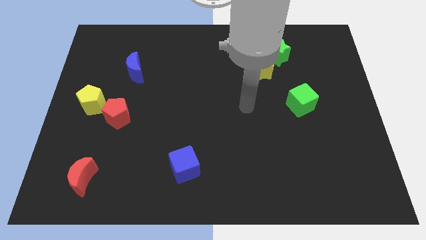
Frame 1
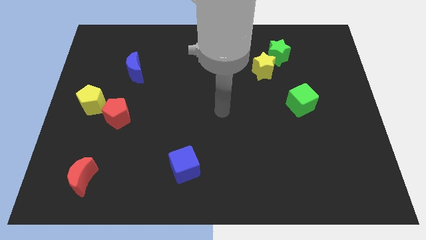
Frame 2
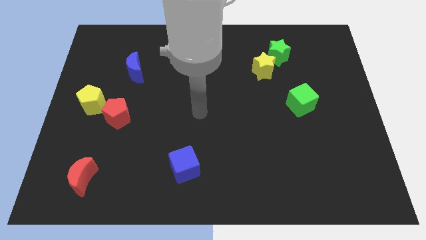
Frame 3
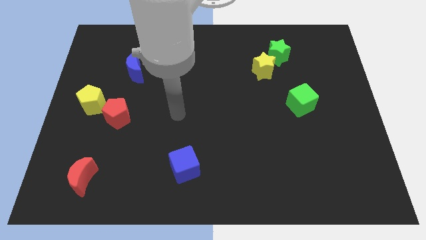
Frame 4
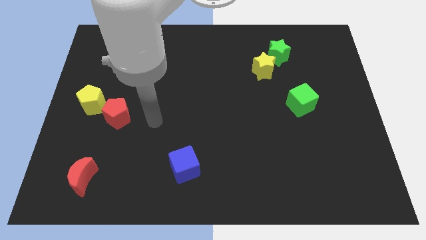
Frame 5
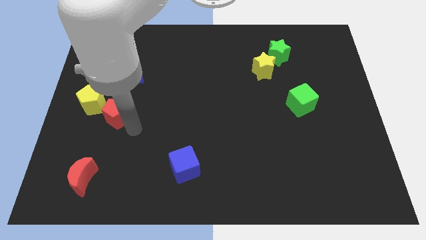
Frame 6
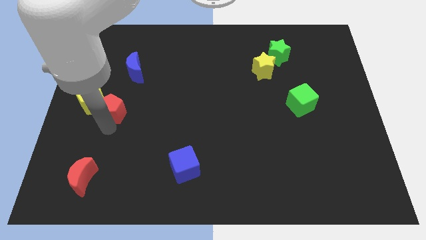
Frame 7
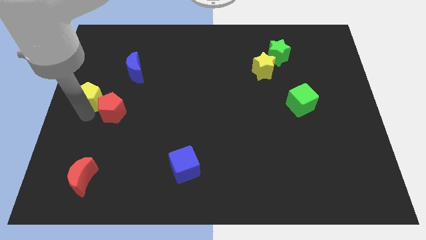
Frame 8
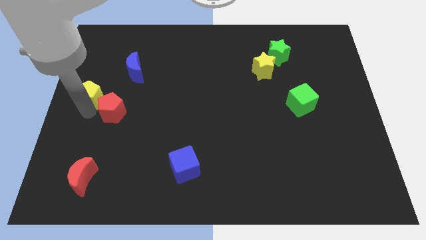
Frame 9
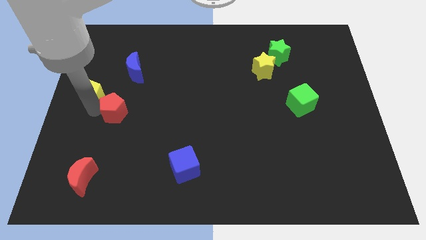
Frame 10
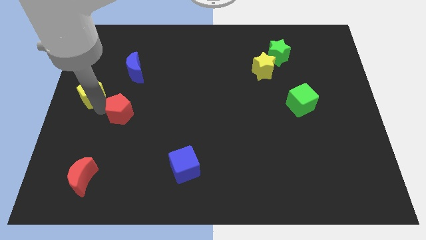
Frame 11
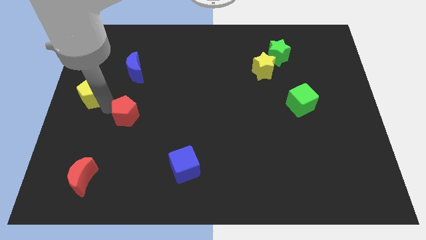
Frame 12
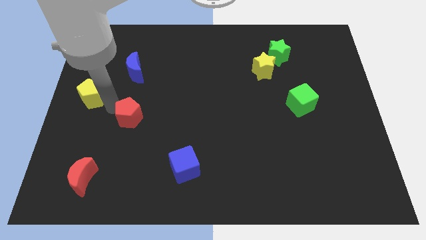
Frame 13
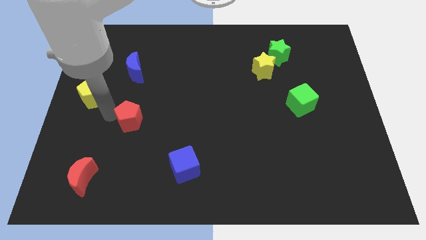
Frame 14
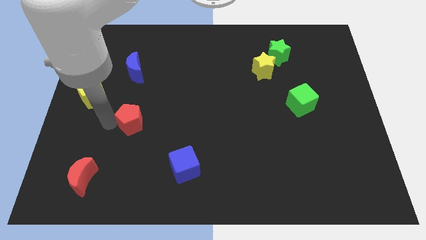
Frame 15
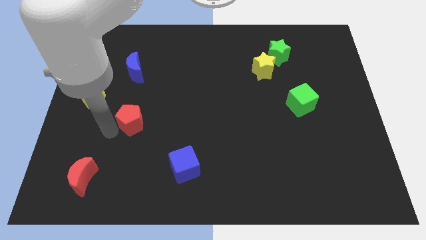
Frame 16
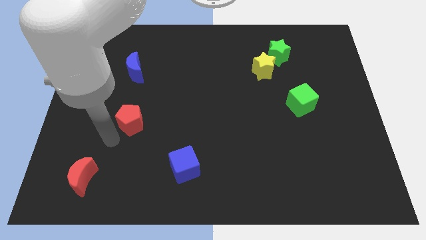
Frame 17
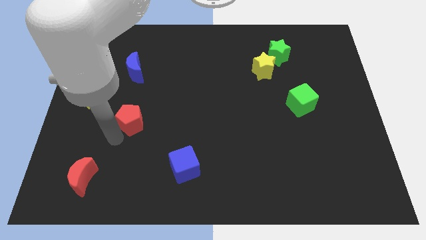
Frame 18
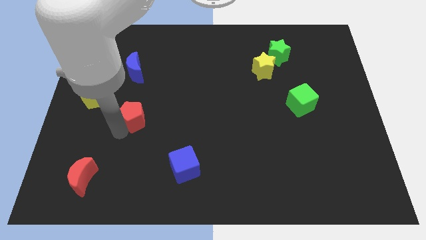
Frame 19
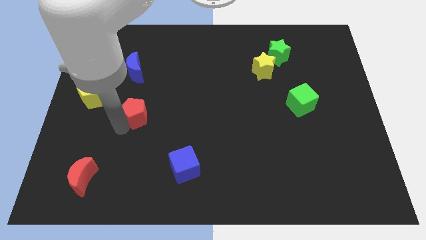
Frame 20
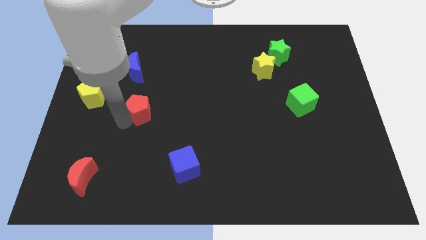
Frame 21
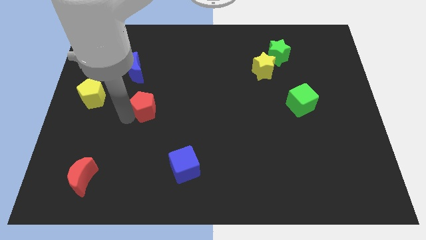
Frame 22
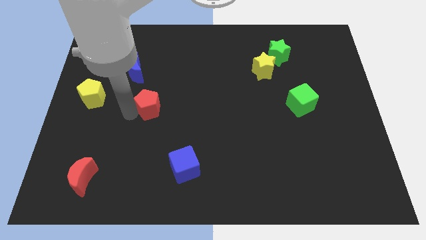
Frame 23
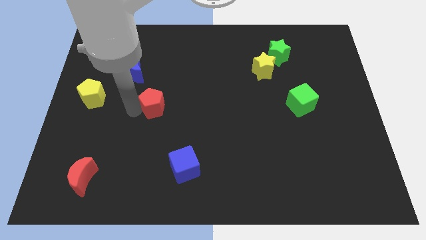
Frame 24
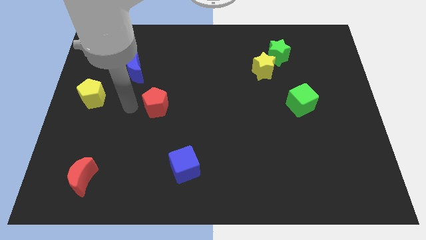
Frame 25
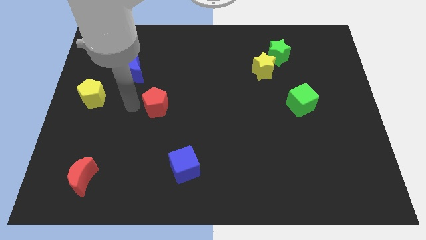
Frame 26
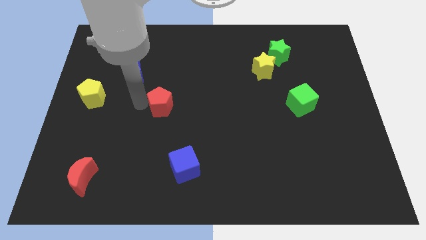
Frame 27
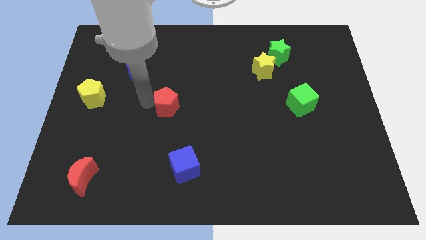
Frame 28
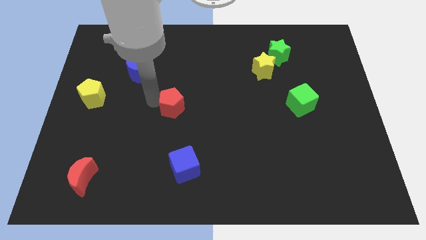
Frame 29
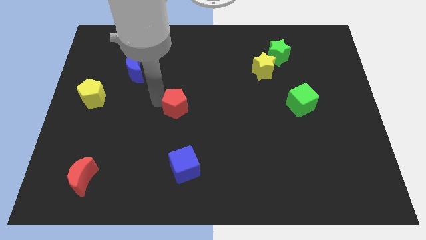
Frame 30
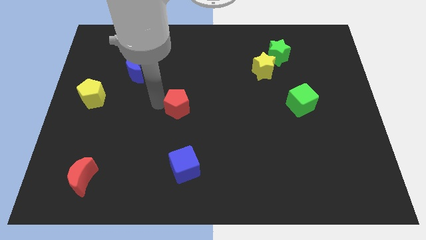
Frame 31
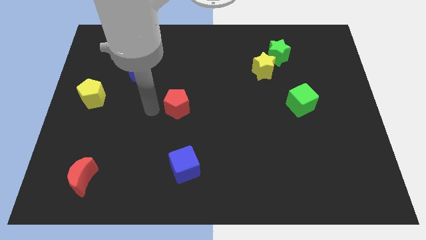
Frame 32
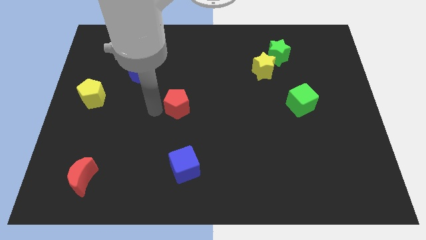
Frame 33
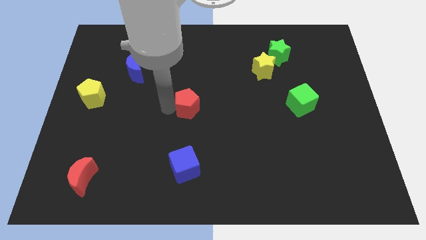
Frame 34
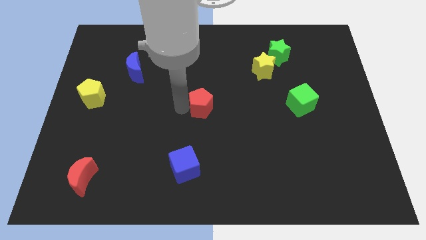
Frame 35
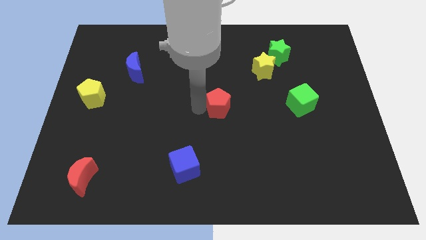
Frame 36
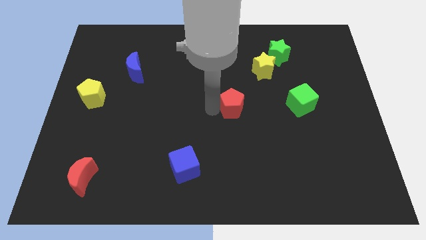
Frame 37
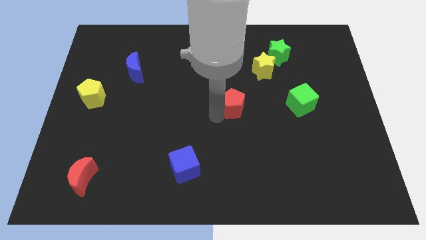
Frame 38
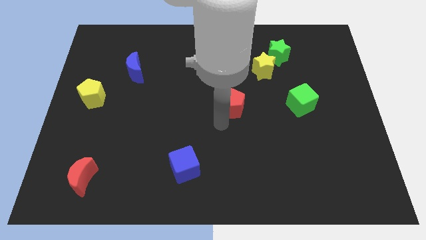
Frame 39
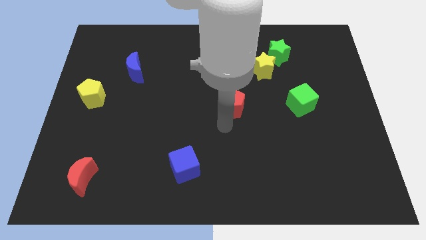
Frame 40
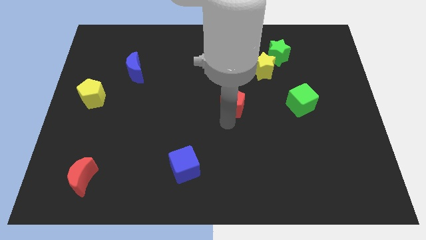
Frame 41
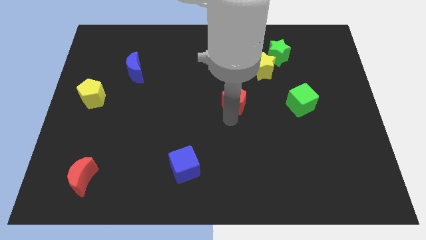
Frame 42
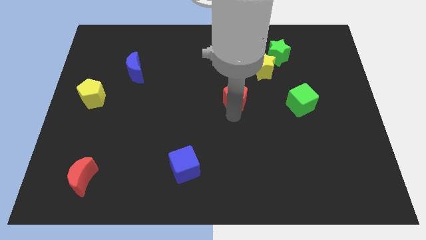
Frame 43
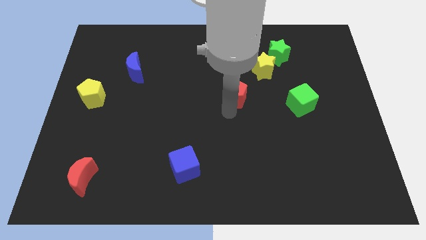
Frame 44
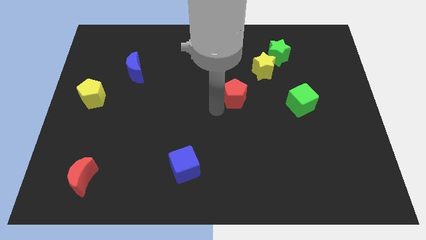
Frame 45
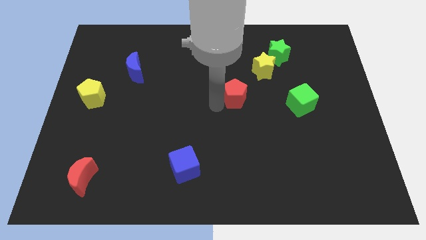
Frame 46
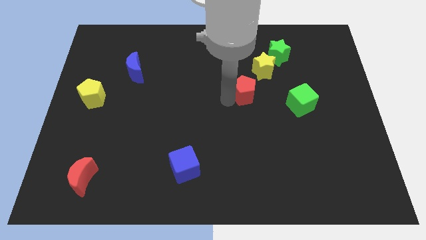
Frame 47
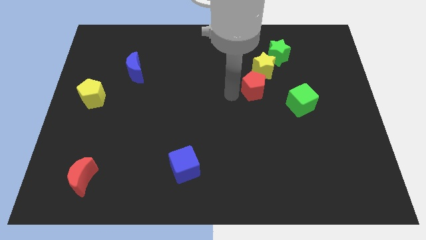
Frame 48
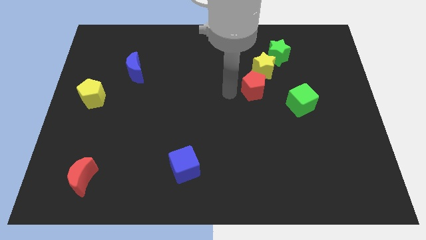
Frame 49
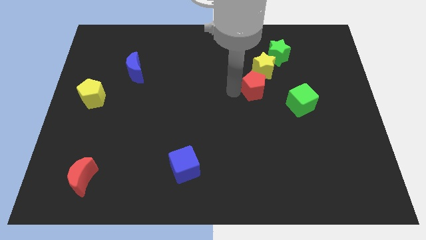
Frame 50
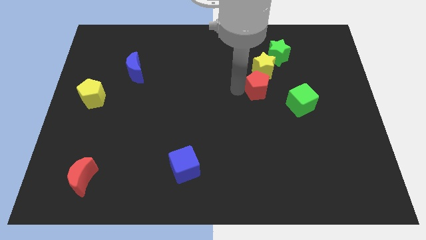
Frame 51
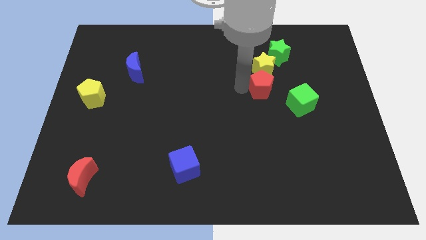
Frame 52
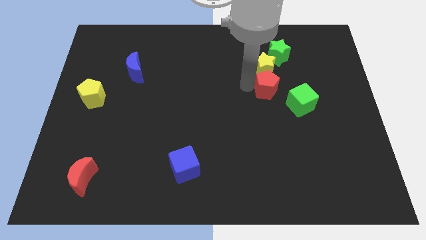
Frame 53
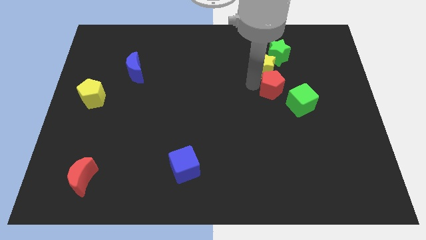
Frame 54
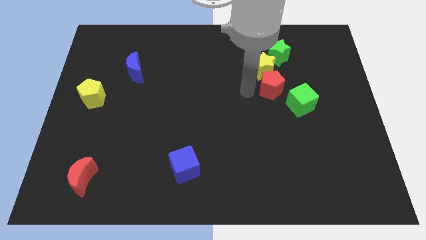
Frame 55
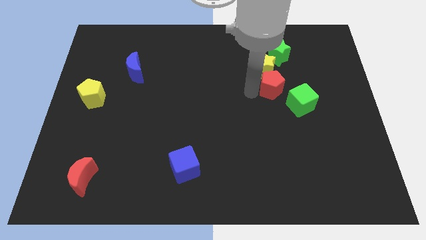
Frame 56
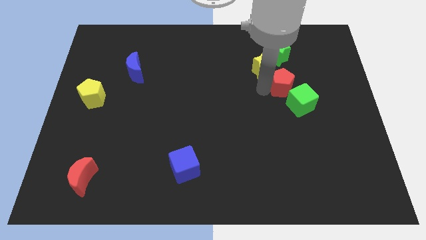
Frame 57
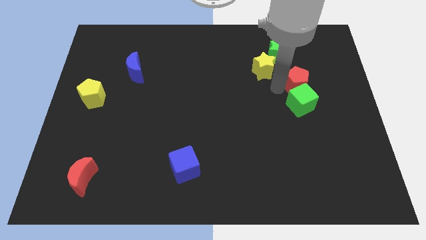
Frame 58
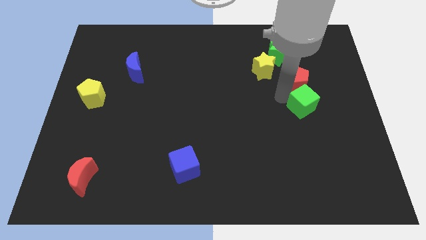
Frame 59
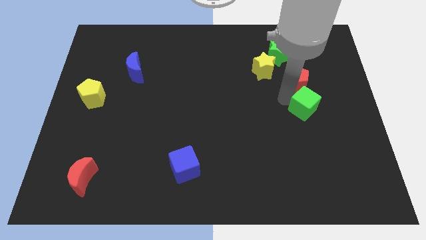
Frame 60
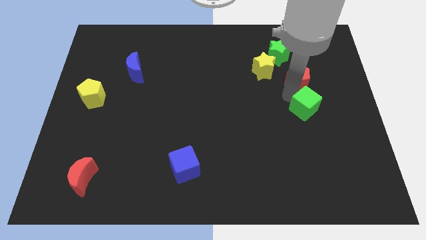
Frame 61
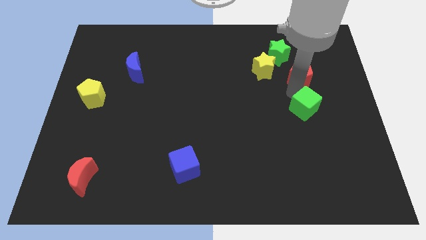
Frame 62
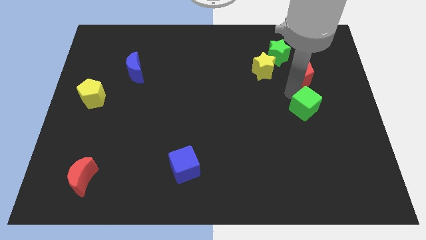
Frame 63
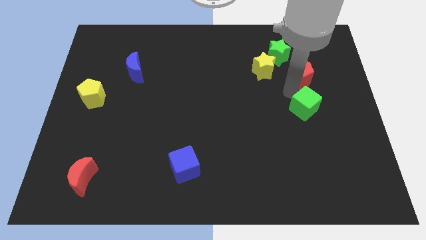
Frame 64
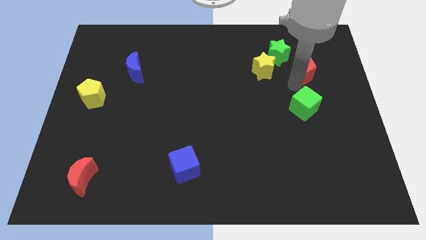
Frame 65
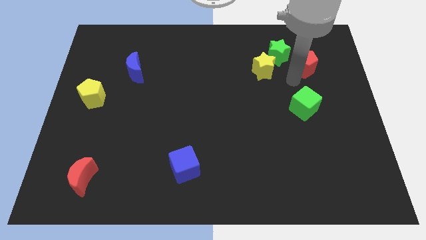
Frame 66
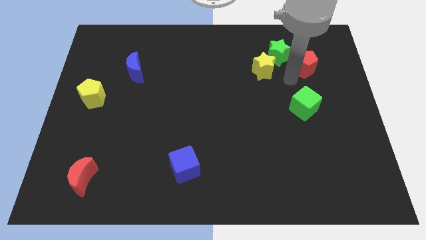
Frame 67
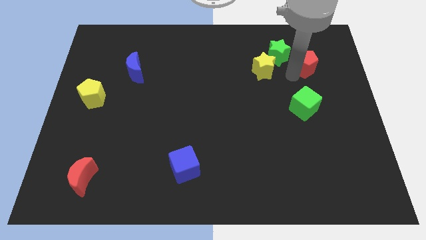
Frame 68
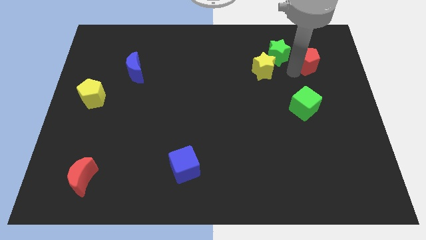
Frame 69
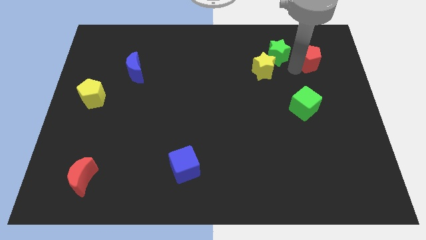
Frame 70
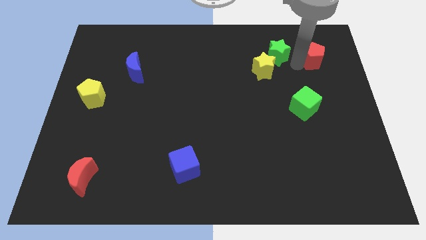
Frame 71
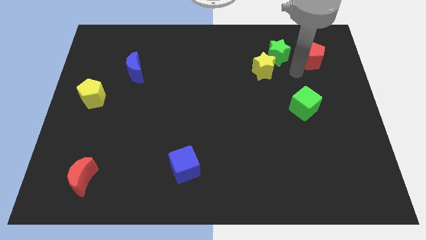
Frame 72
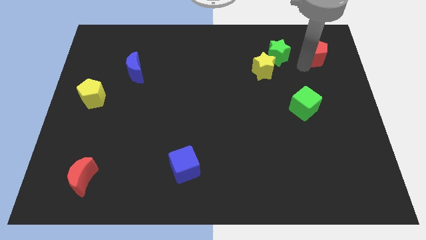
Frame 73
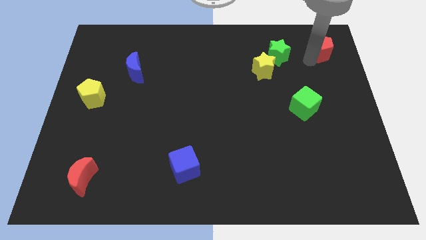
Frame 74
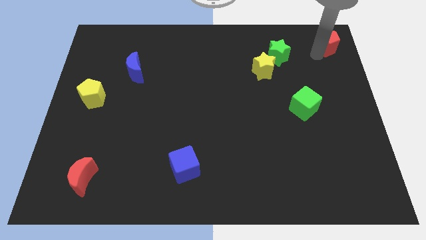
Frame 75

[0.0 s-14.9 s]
move the red pentagon to the top right corner
